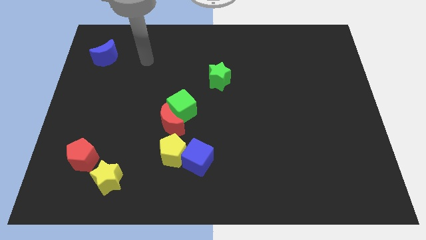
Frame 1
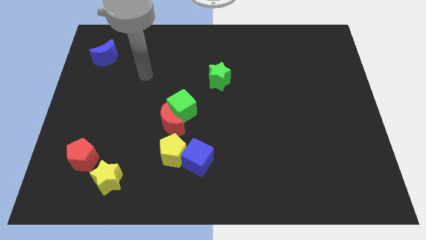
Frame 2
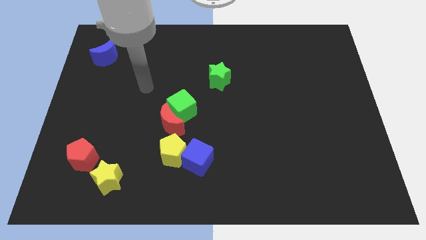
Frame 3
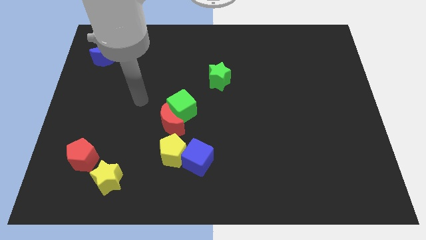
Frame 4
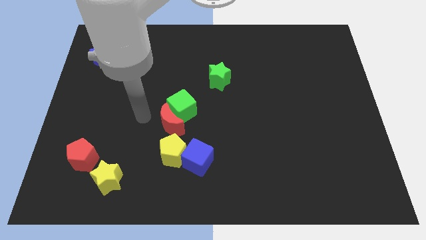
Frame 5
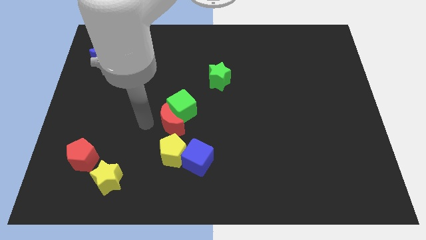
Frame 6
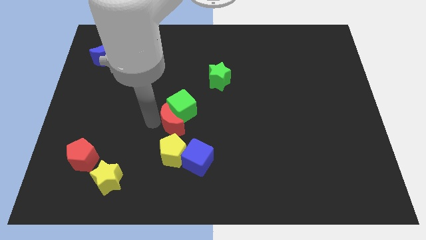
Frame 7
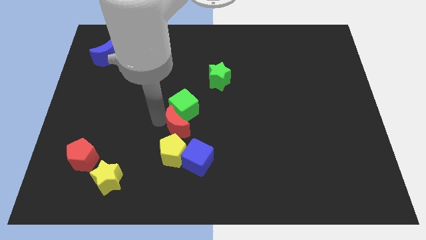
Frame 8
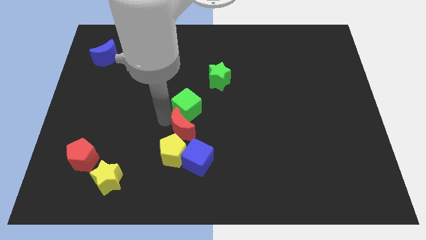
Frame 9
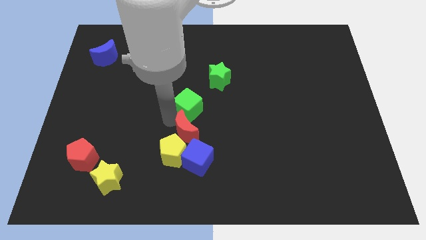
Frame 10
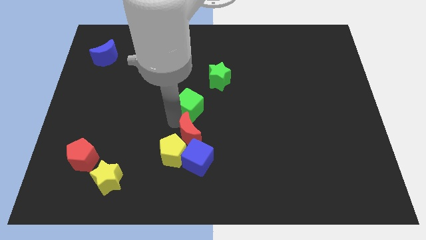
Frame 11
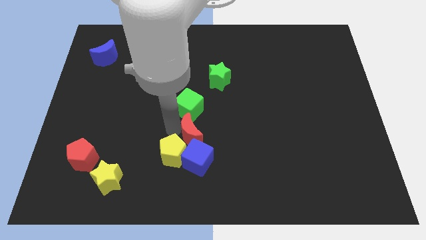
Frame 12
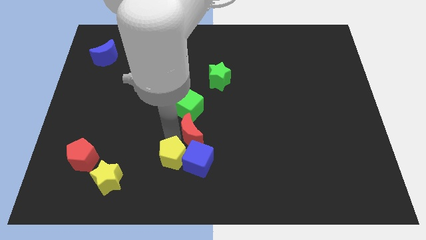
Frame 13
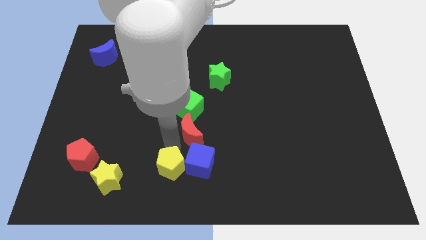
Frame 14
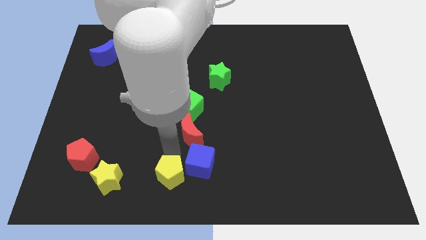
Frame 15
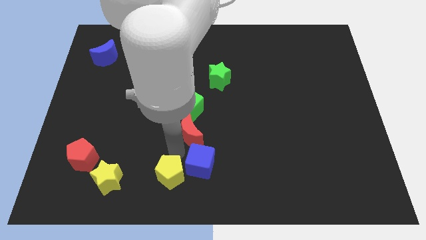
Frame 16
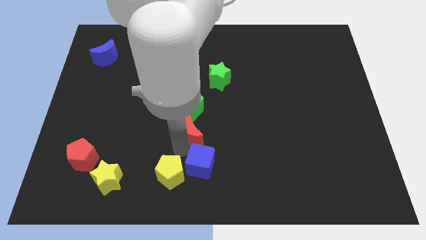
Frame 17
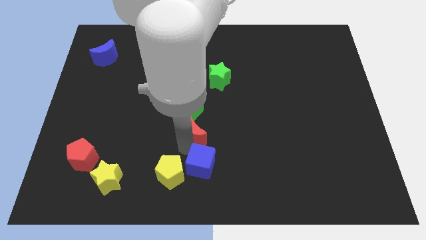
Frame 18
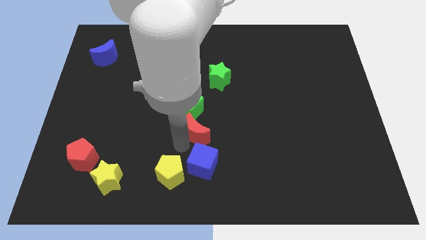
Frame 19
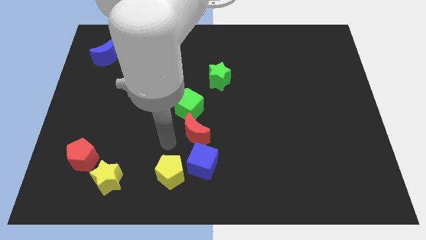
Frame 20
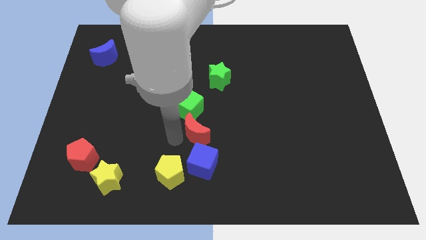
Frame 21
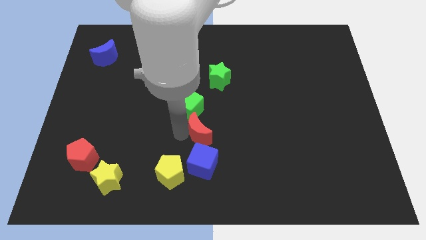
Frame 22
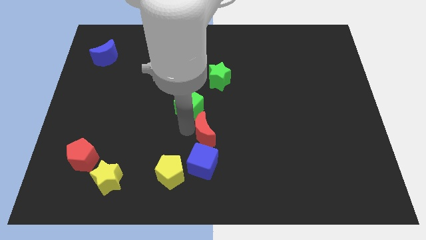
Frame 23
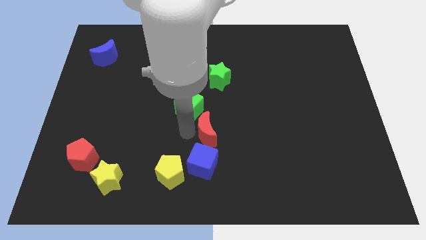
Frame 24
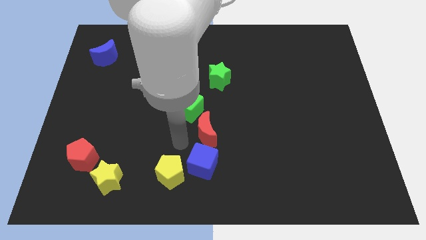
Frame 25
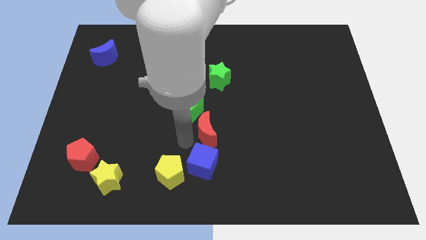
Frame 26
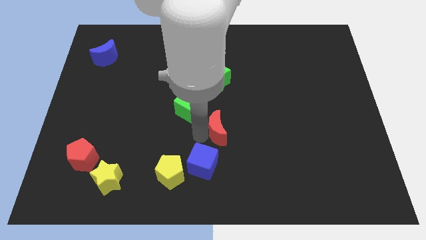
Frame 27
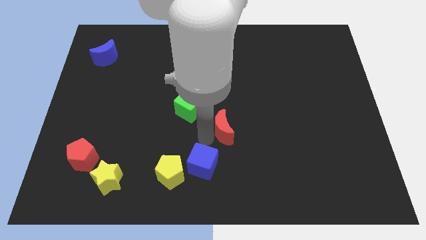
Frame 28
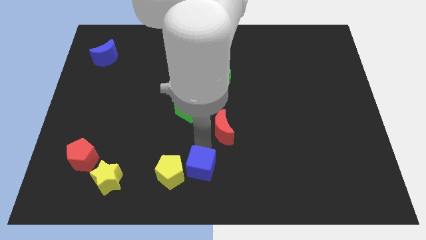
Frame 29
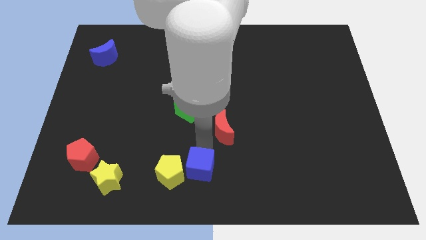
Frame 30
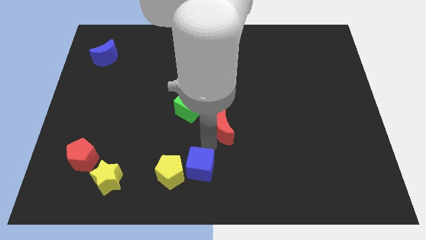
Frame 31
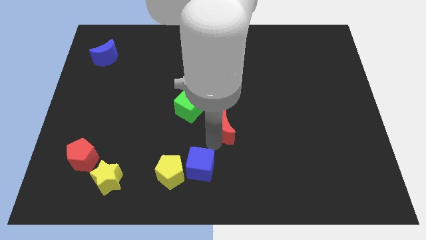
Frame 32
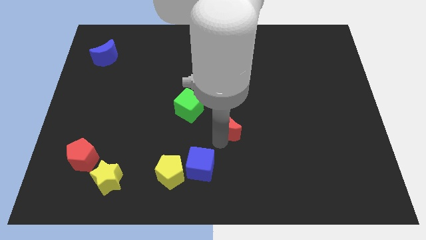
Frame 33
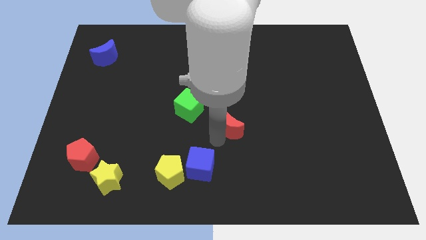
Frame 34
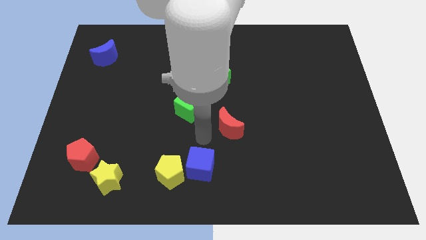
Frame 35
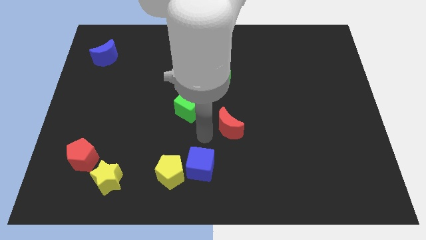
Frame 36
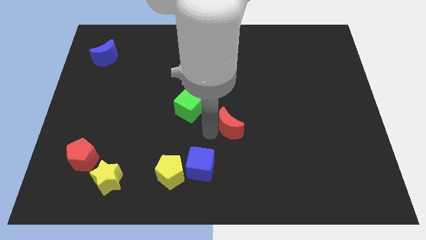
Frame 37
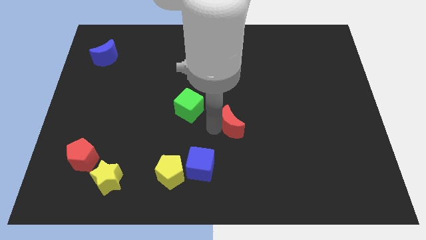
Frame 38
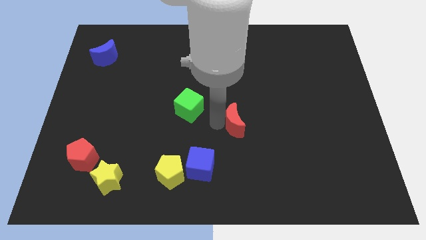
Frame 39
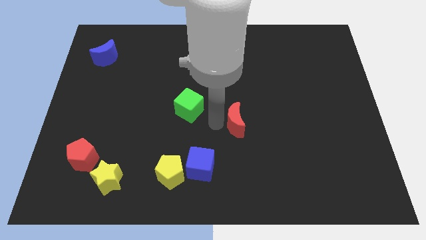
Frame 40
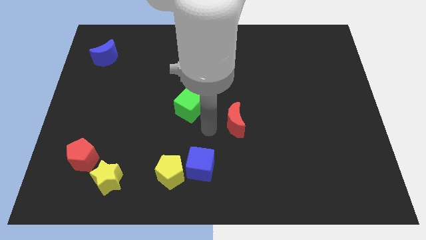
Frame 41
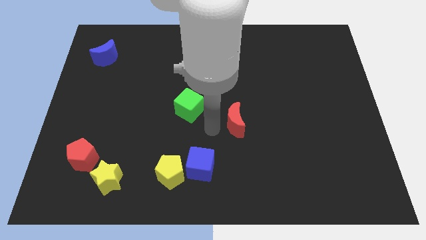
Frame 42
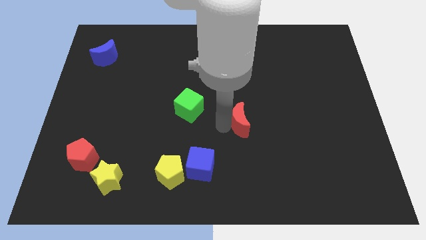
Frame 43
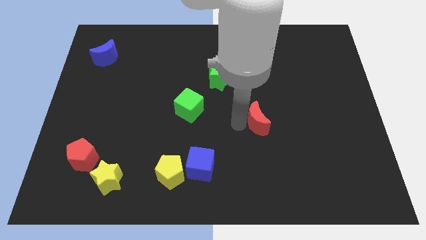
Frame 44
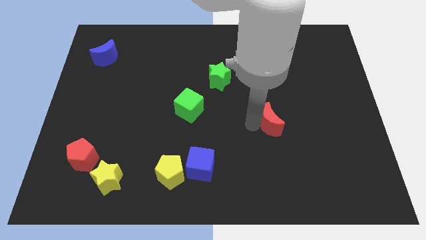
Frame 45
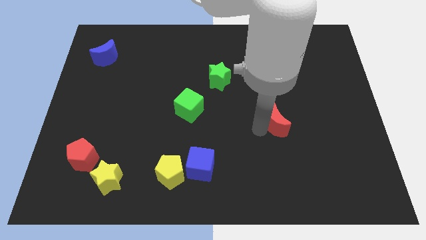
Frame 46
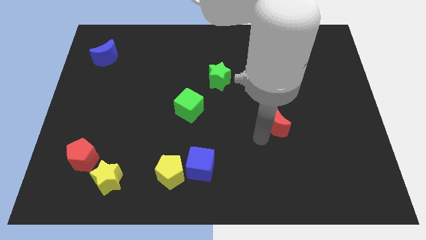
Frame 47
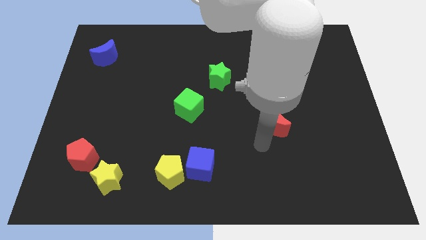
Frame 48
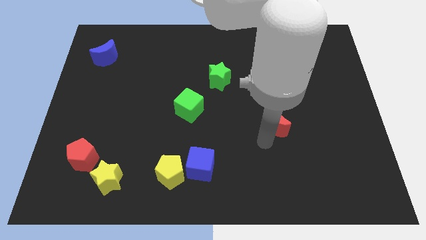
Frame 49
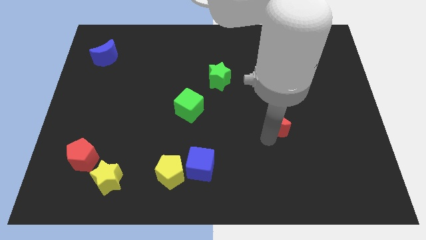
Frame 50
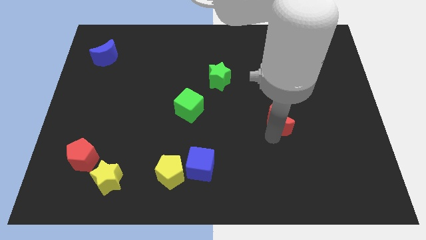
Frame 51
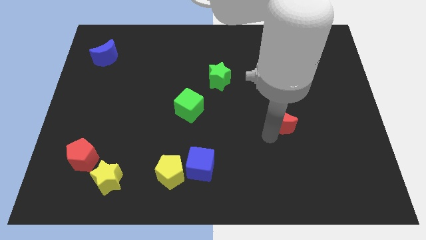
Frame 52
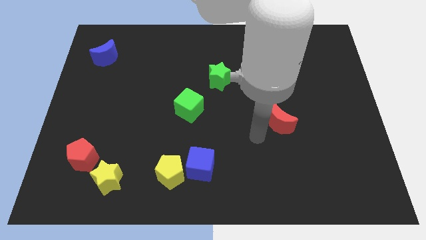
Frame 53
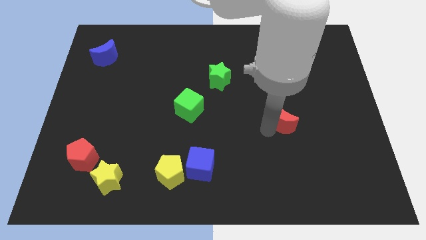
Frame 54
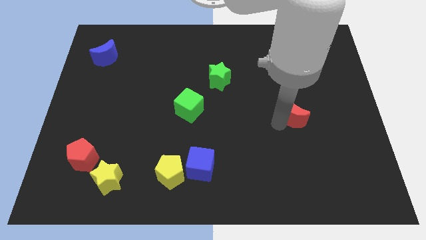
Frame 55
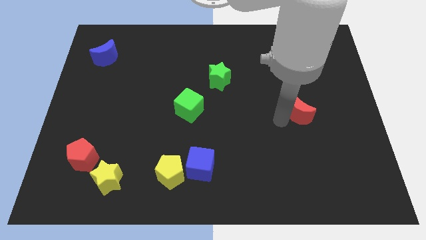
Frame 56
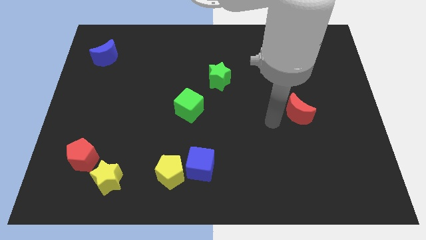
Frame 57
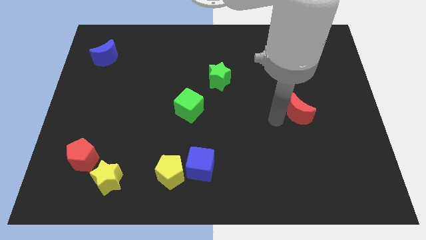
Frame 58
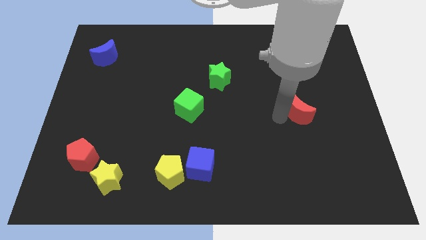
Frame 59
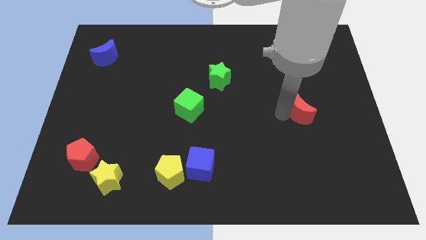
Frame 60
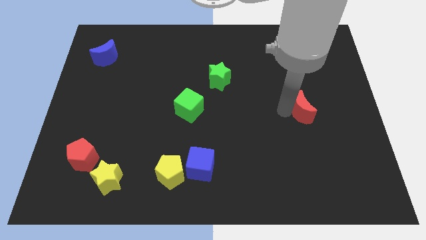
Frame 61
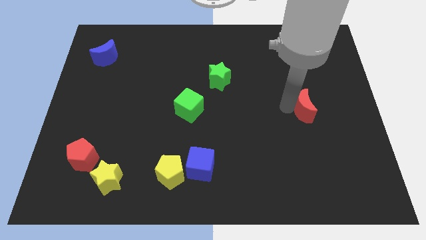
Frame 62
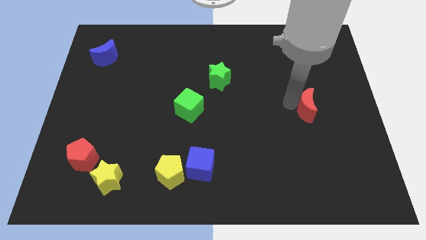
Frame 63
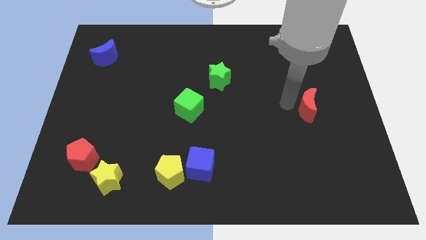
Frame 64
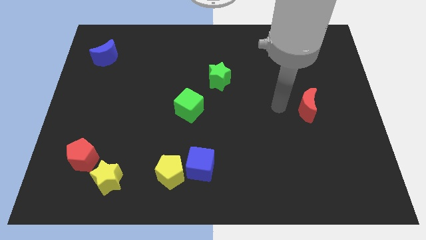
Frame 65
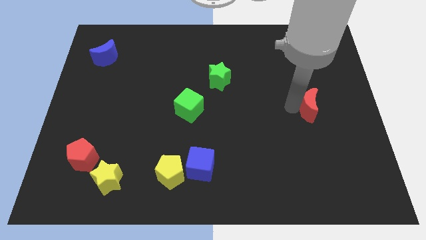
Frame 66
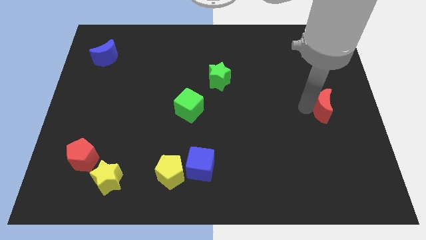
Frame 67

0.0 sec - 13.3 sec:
slide the red moon to the right side of the board
